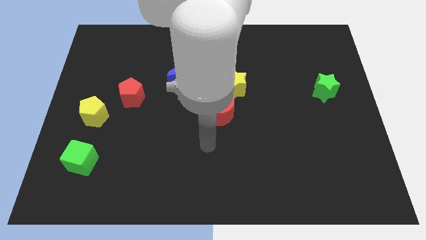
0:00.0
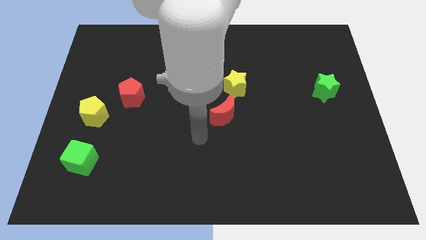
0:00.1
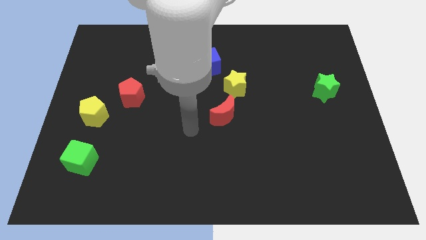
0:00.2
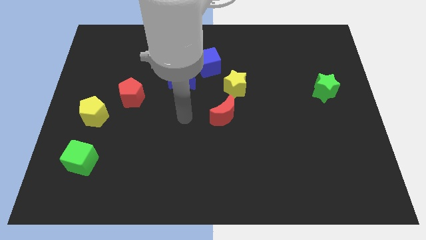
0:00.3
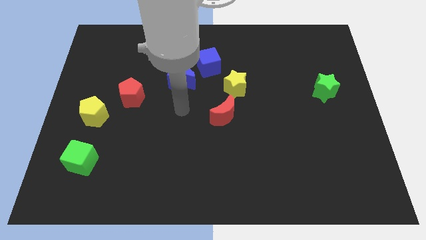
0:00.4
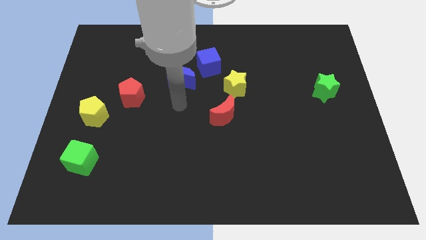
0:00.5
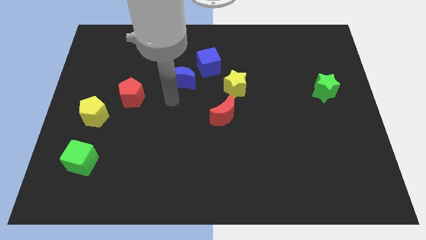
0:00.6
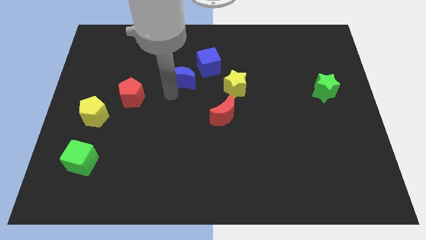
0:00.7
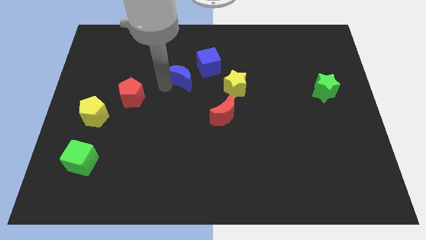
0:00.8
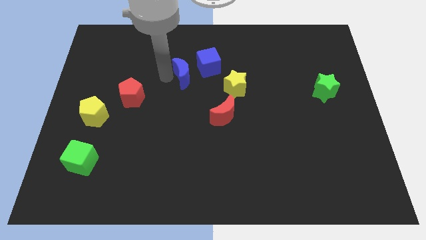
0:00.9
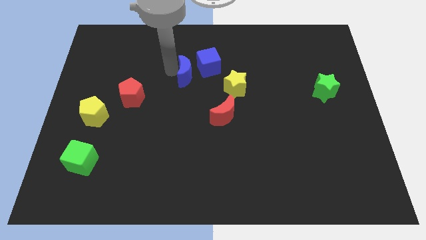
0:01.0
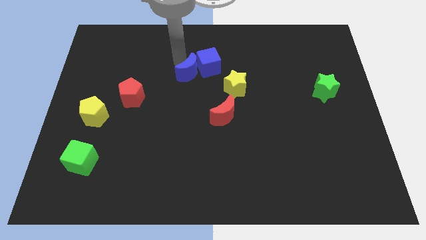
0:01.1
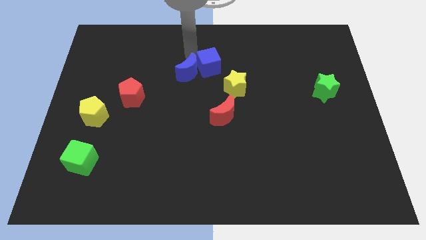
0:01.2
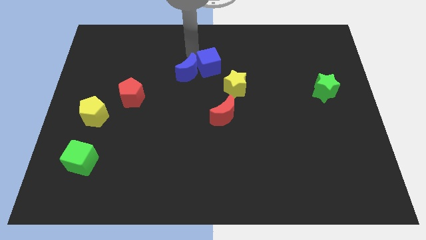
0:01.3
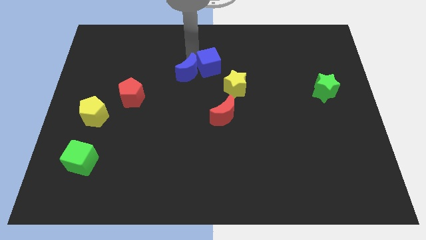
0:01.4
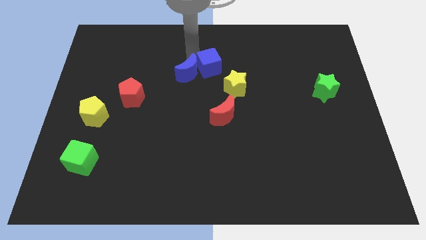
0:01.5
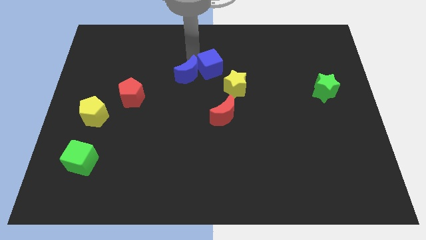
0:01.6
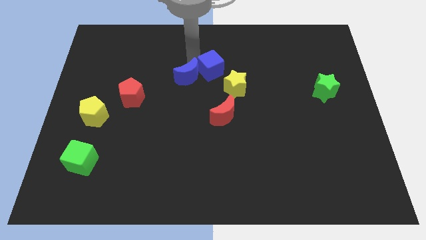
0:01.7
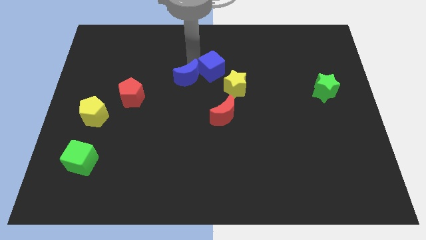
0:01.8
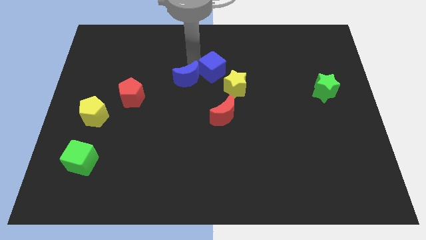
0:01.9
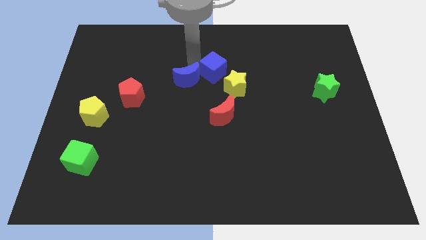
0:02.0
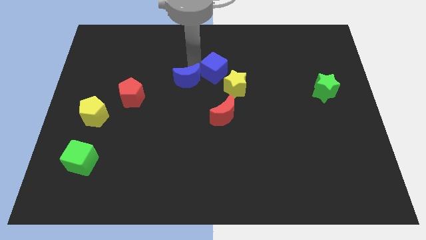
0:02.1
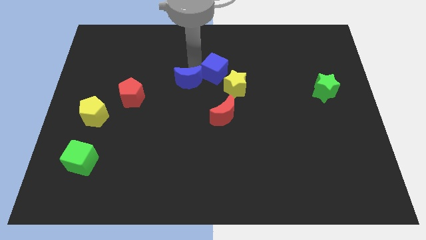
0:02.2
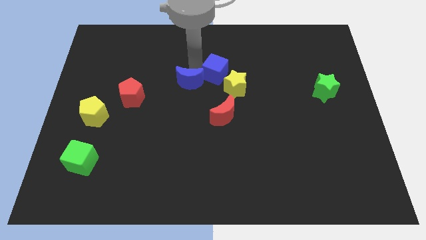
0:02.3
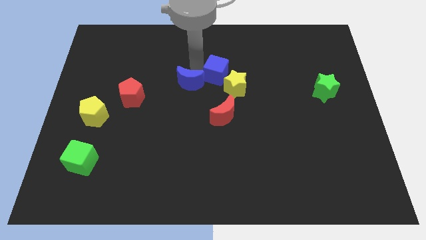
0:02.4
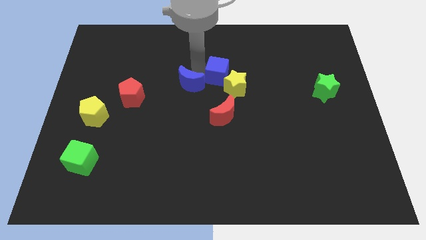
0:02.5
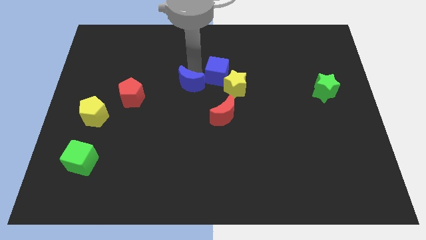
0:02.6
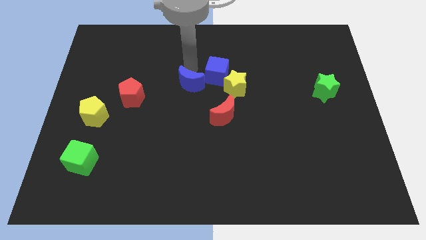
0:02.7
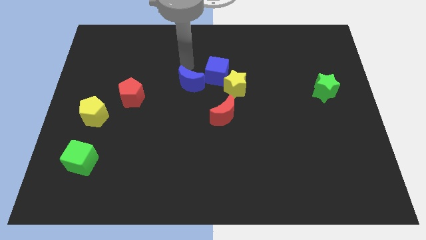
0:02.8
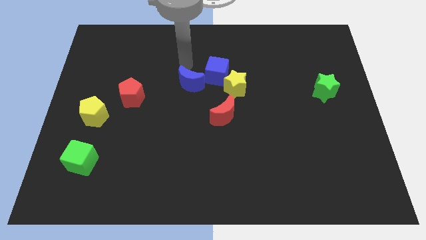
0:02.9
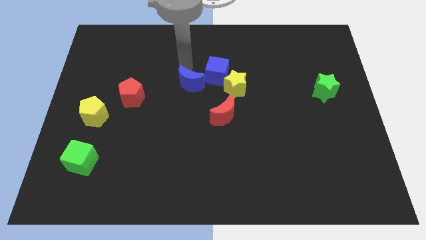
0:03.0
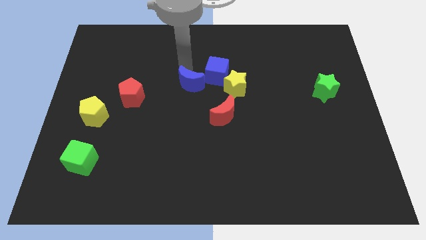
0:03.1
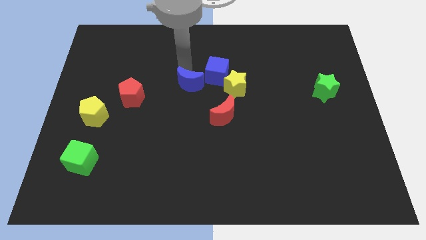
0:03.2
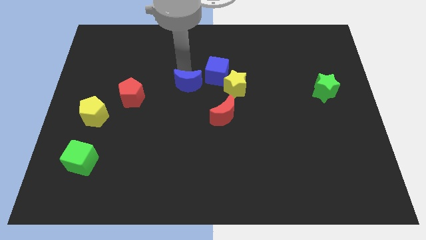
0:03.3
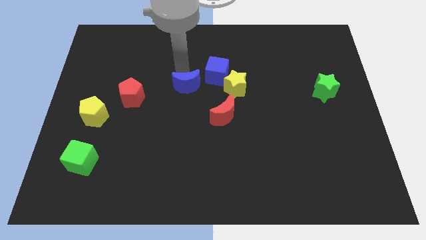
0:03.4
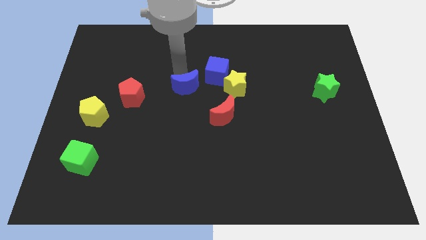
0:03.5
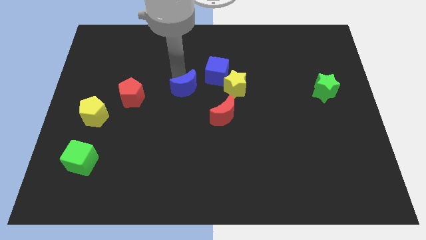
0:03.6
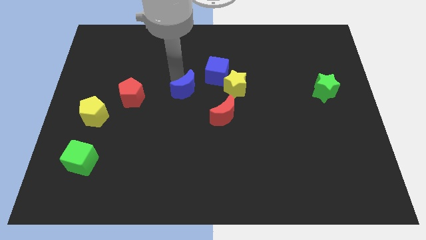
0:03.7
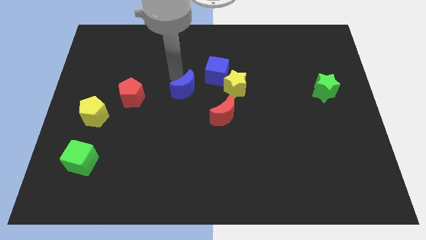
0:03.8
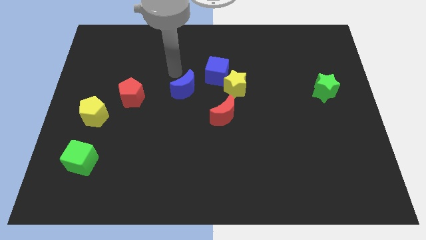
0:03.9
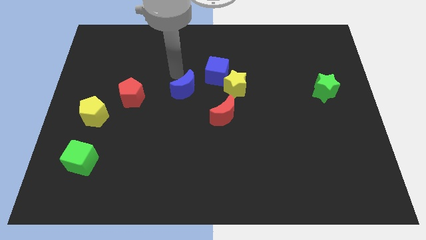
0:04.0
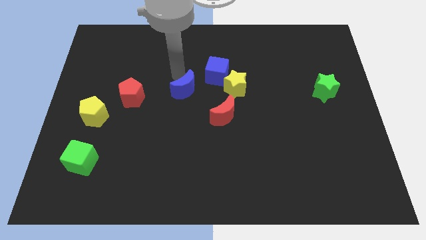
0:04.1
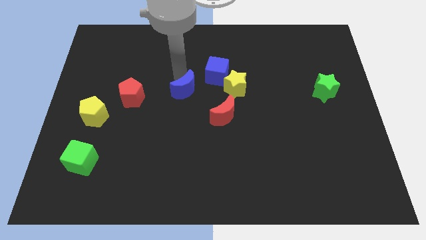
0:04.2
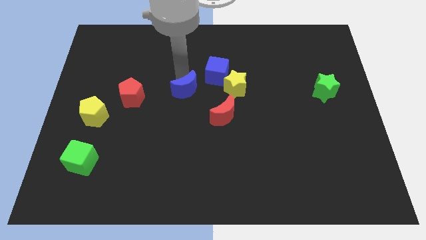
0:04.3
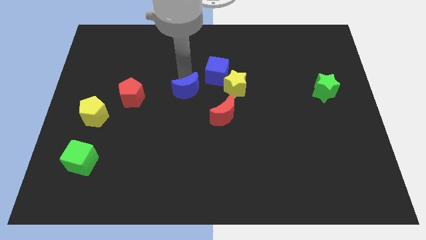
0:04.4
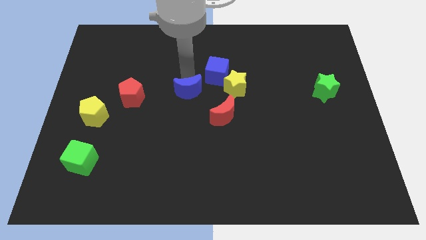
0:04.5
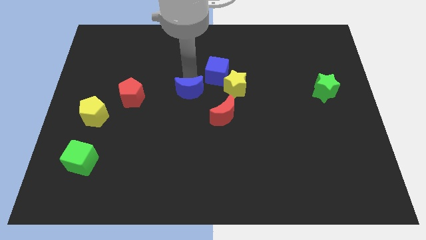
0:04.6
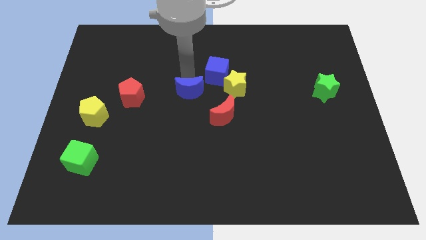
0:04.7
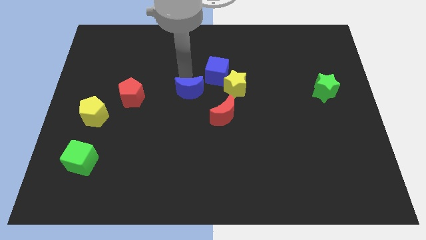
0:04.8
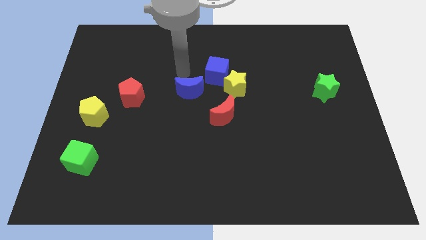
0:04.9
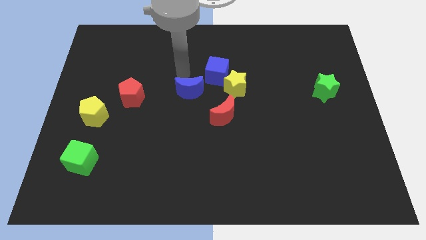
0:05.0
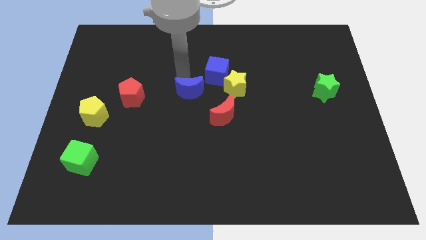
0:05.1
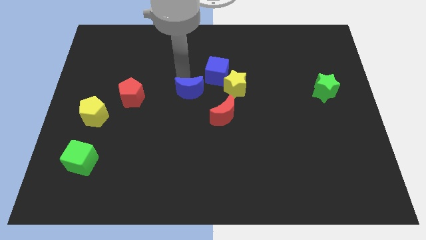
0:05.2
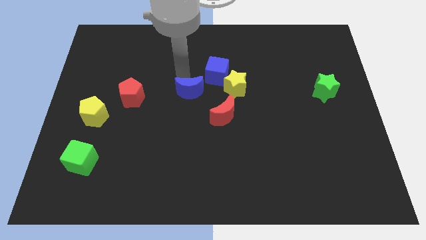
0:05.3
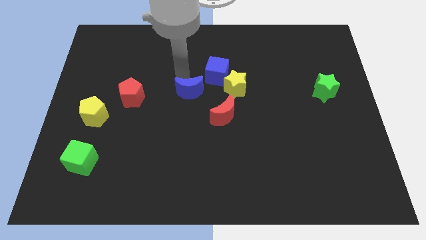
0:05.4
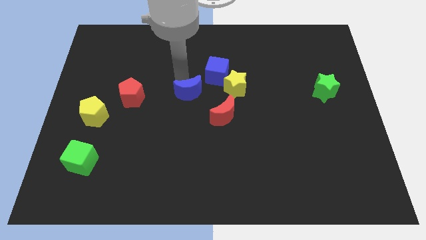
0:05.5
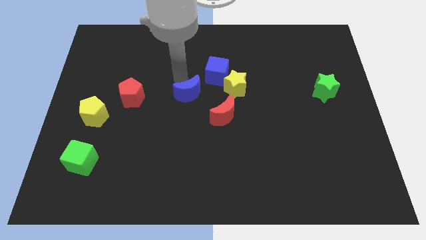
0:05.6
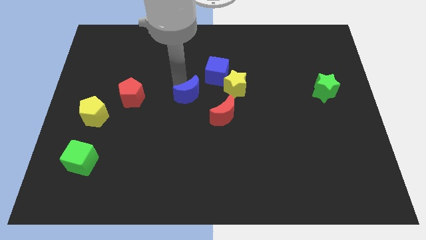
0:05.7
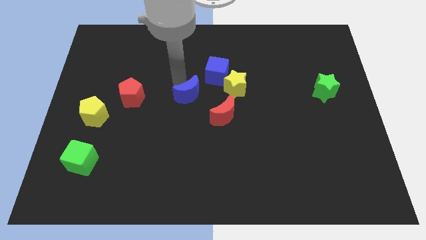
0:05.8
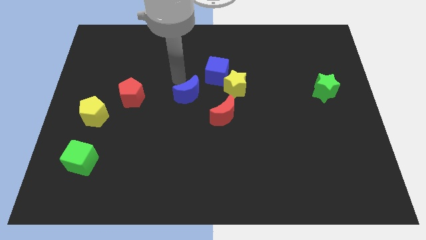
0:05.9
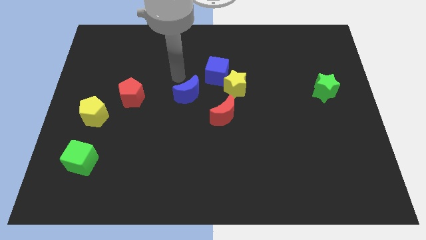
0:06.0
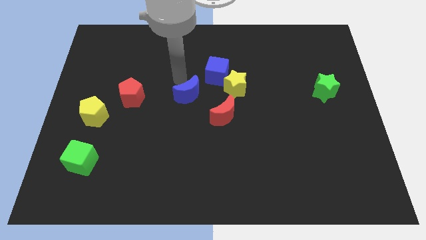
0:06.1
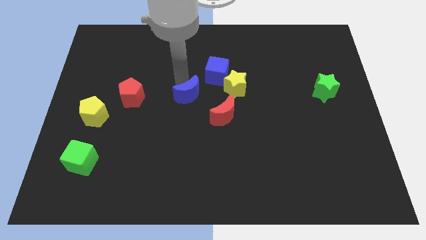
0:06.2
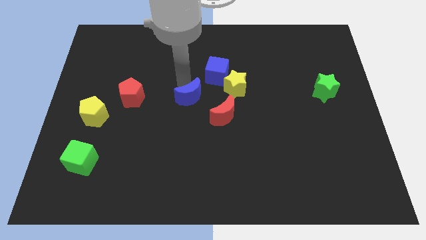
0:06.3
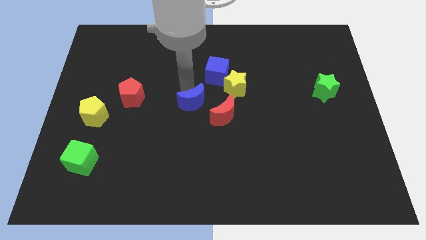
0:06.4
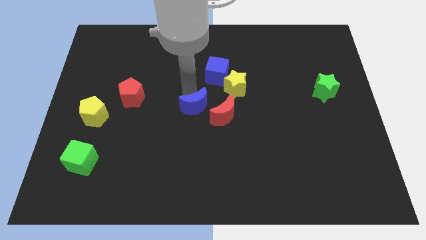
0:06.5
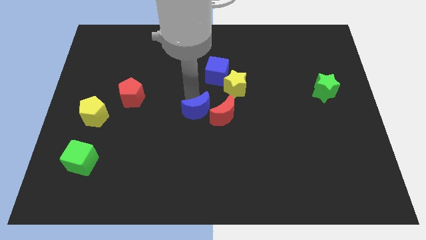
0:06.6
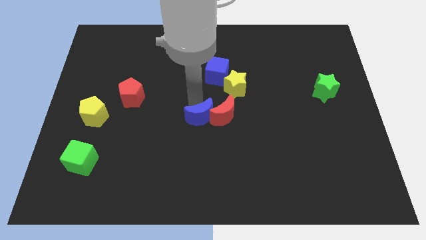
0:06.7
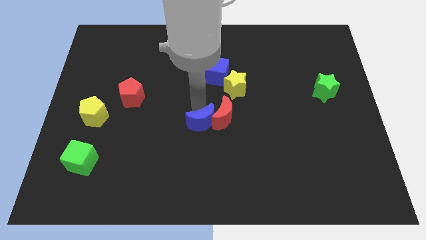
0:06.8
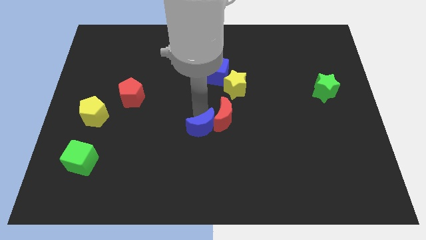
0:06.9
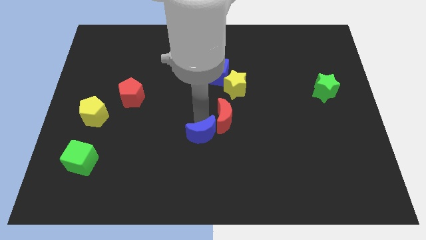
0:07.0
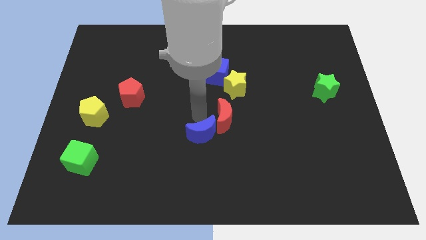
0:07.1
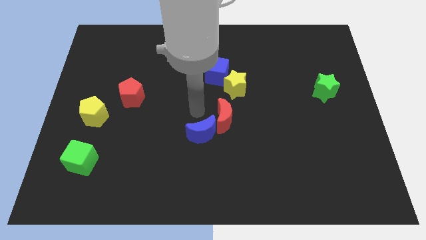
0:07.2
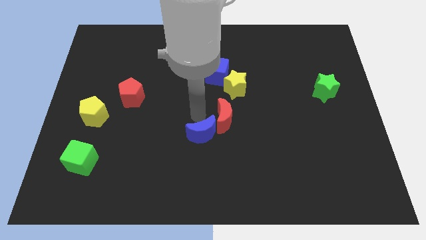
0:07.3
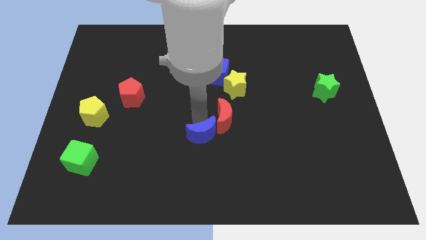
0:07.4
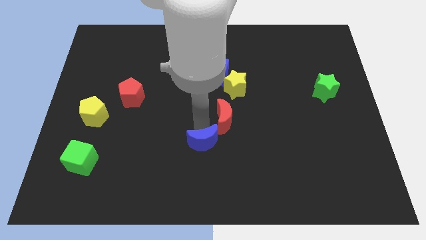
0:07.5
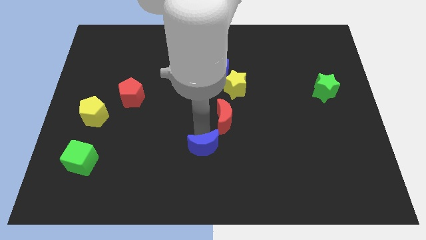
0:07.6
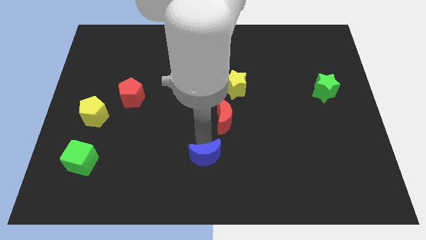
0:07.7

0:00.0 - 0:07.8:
slide the blue moon to the bottom side
